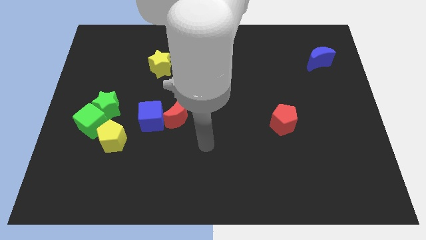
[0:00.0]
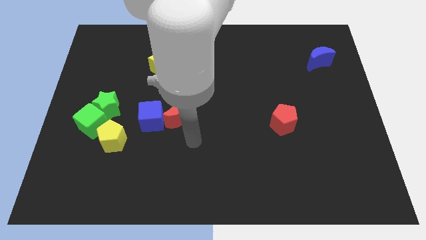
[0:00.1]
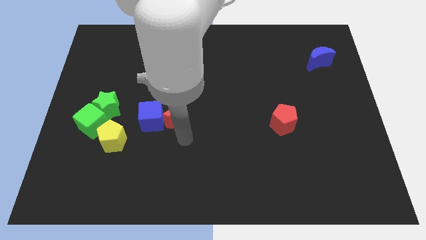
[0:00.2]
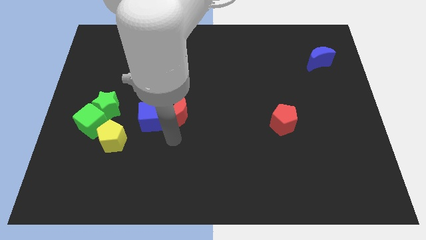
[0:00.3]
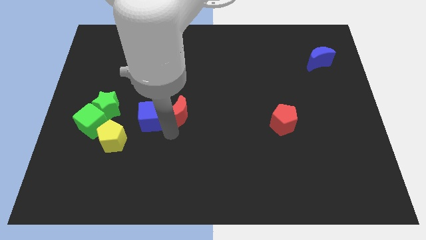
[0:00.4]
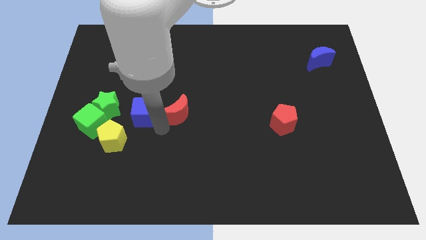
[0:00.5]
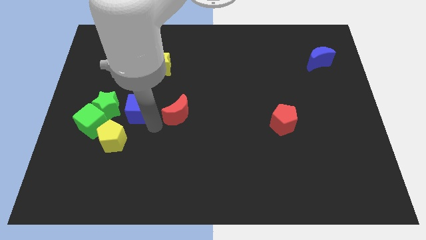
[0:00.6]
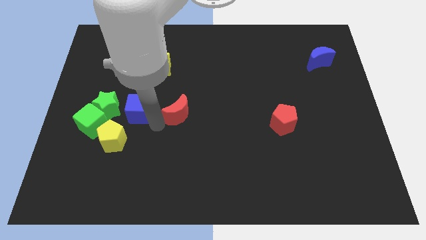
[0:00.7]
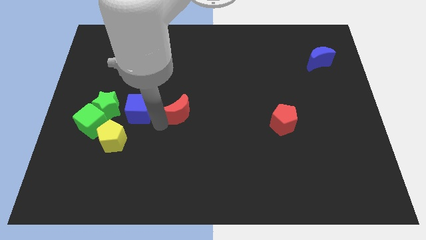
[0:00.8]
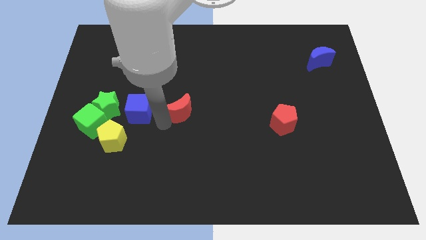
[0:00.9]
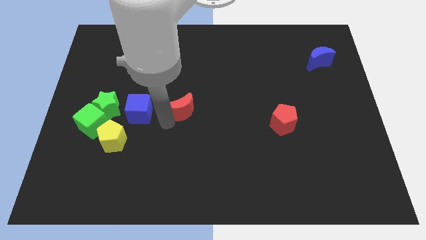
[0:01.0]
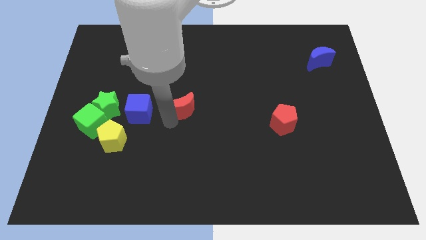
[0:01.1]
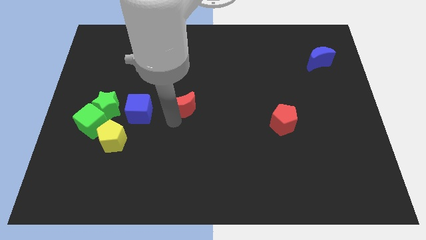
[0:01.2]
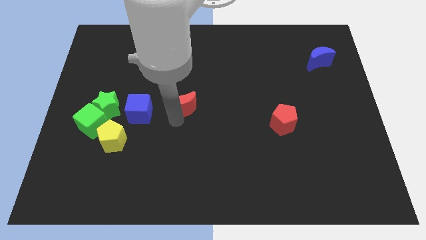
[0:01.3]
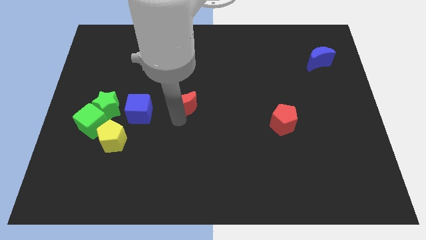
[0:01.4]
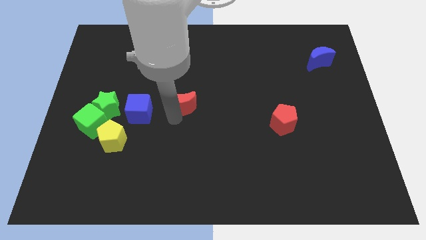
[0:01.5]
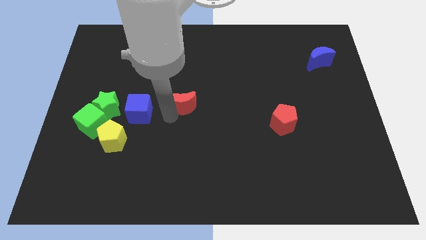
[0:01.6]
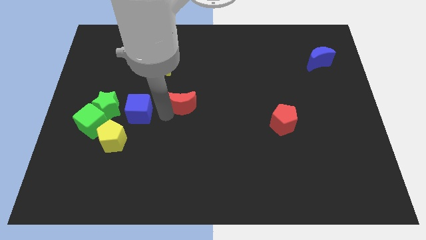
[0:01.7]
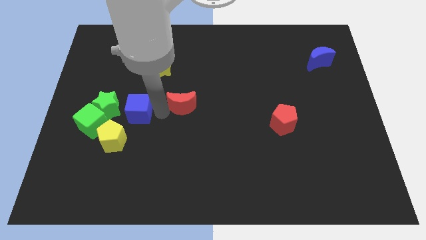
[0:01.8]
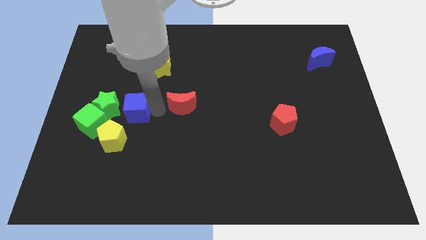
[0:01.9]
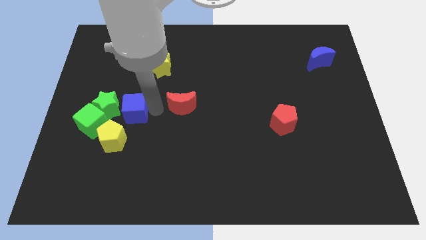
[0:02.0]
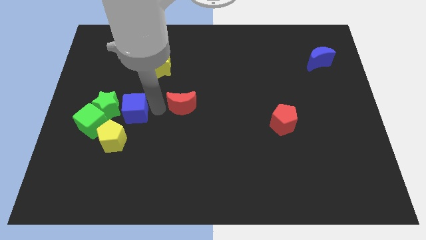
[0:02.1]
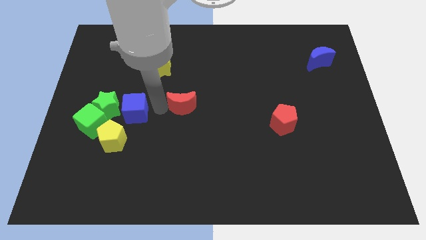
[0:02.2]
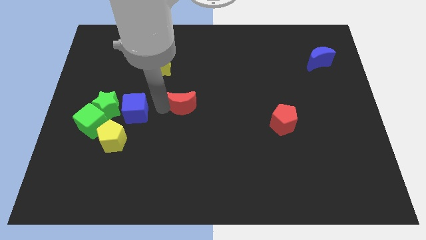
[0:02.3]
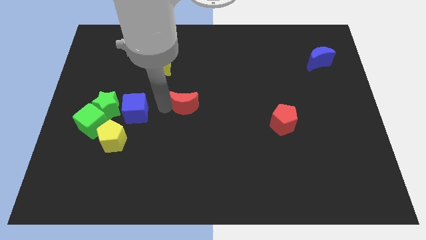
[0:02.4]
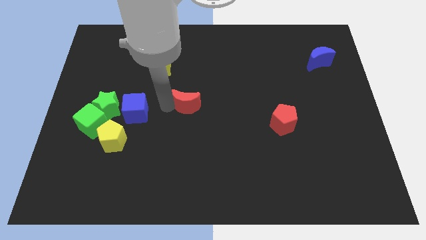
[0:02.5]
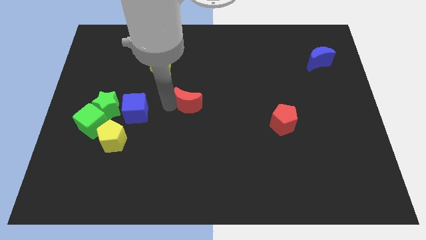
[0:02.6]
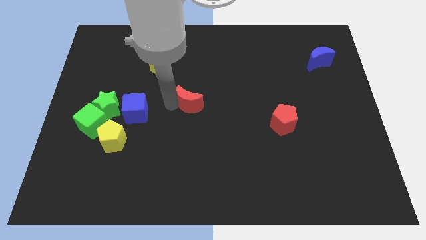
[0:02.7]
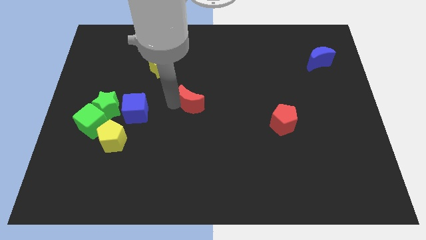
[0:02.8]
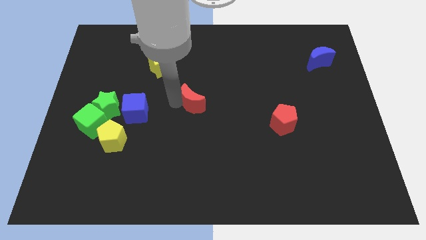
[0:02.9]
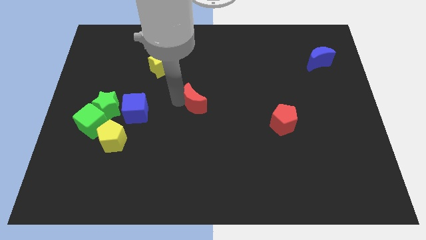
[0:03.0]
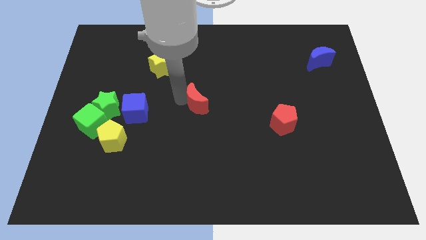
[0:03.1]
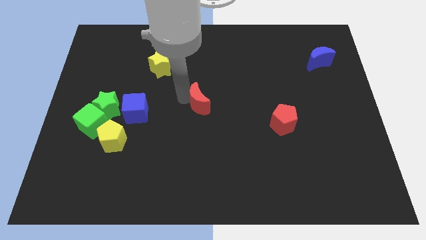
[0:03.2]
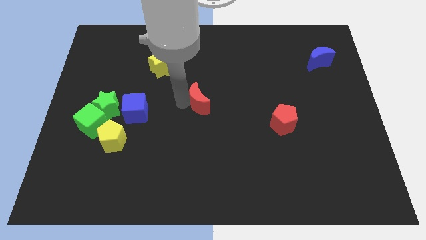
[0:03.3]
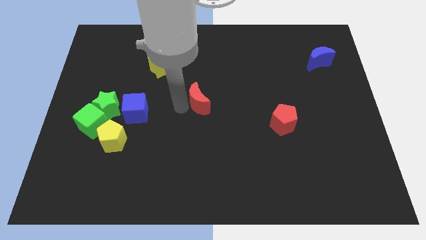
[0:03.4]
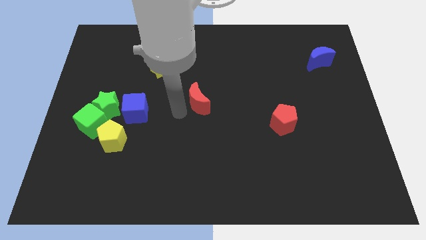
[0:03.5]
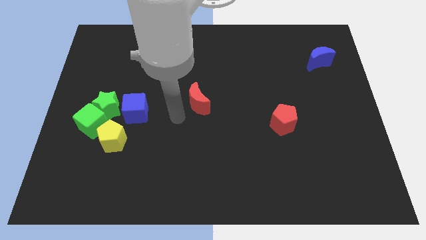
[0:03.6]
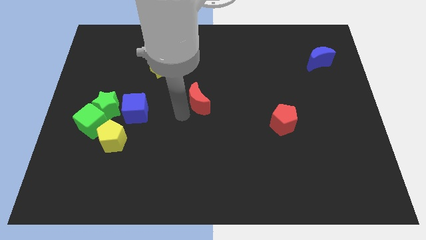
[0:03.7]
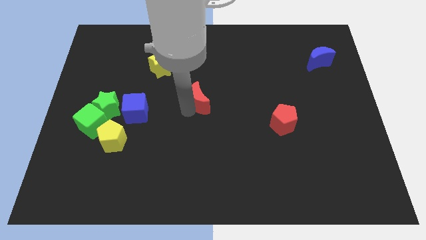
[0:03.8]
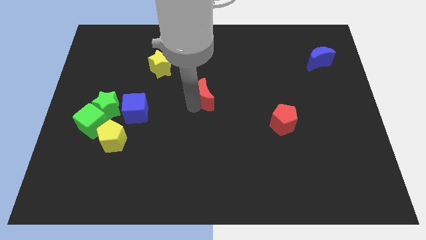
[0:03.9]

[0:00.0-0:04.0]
push the red moon upwards and then right somewhat

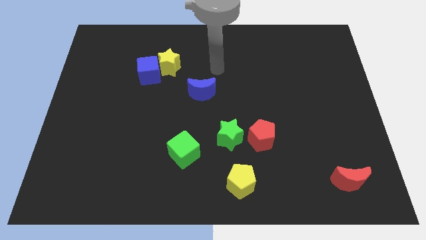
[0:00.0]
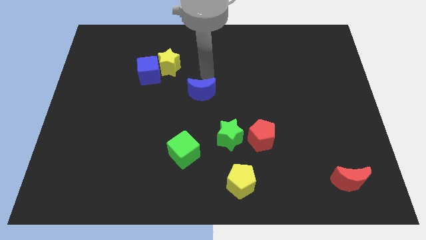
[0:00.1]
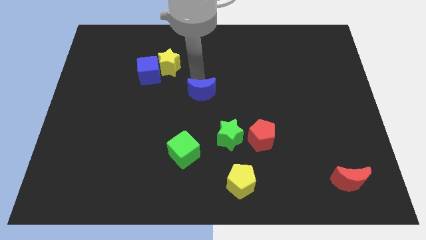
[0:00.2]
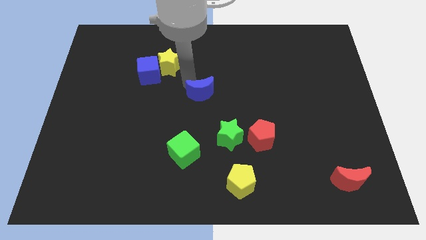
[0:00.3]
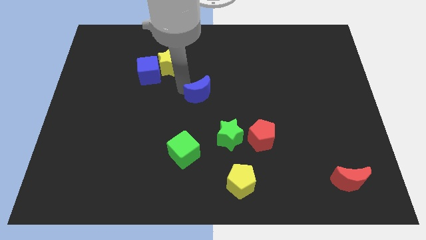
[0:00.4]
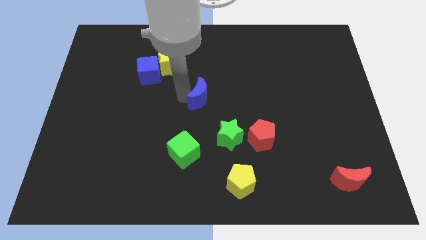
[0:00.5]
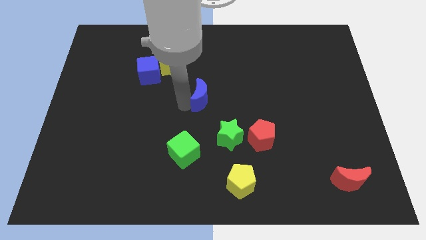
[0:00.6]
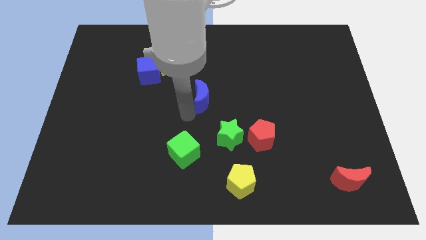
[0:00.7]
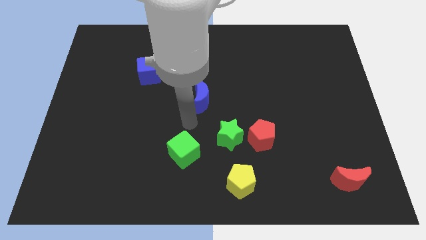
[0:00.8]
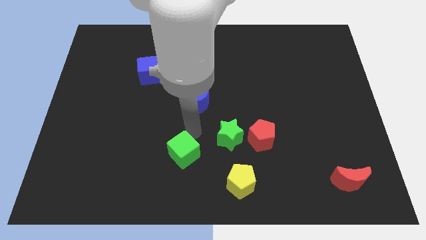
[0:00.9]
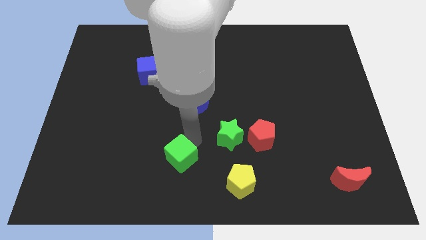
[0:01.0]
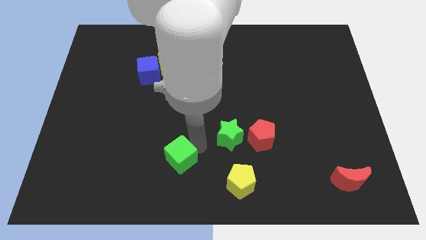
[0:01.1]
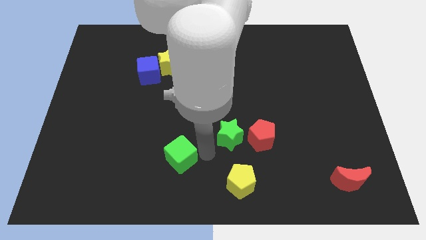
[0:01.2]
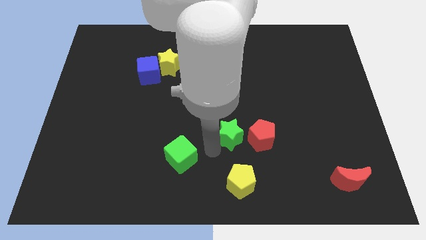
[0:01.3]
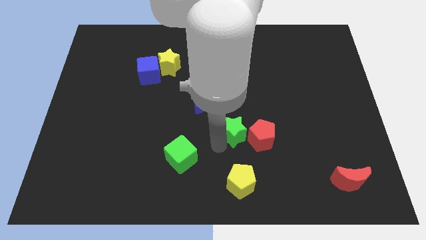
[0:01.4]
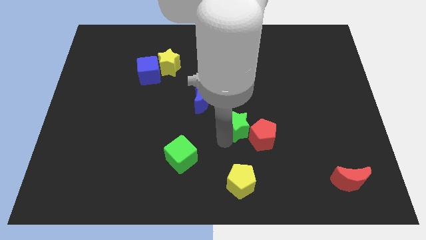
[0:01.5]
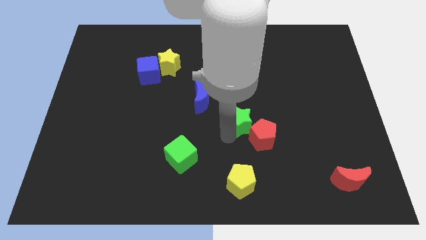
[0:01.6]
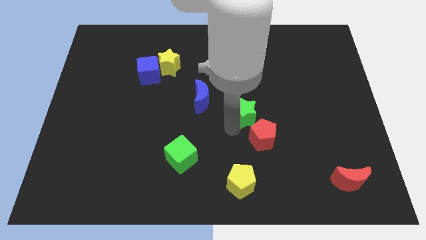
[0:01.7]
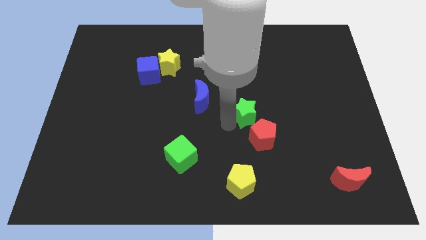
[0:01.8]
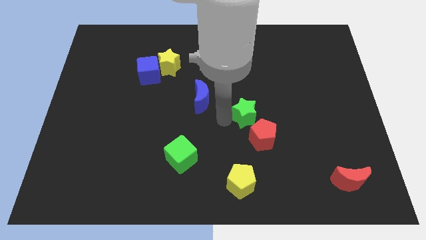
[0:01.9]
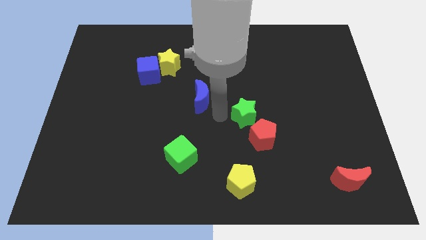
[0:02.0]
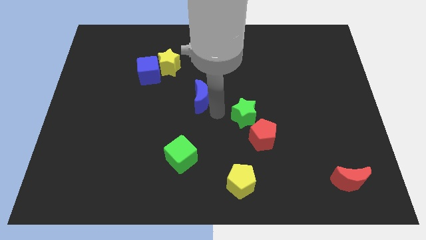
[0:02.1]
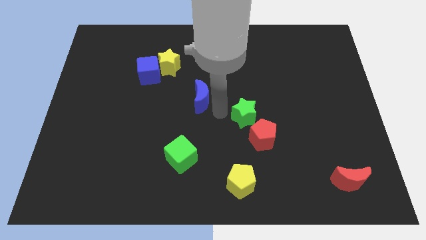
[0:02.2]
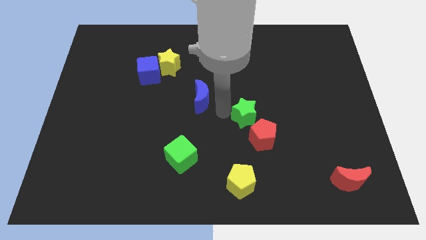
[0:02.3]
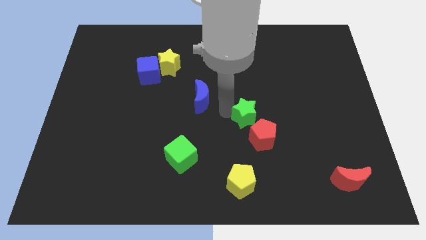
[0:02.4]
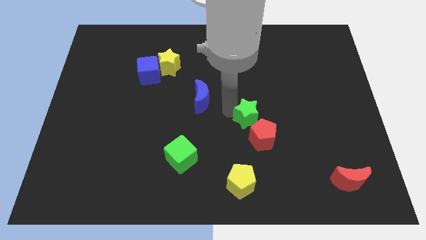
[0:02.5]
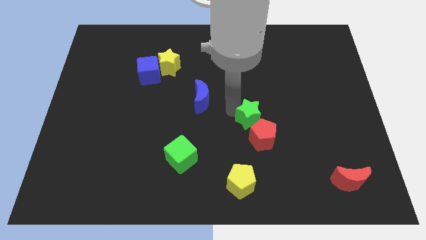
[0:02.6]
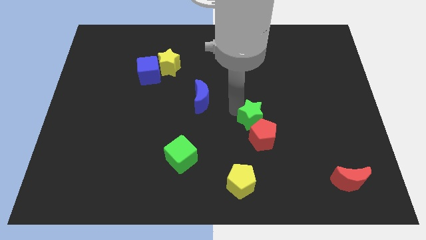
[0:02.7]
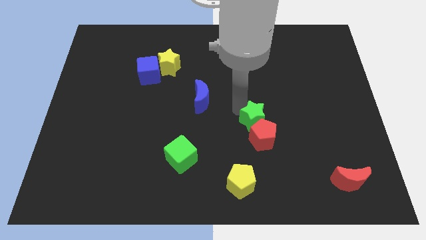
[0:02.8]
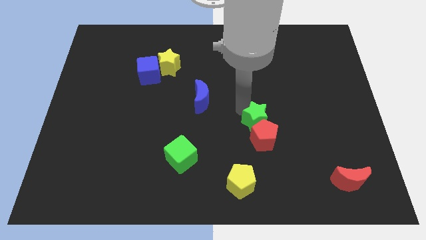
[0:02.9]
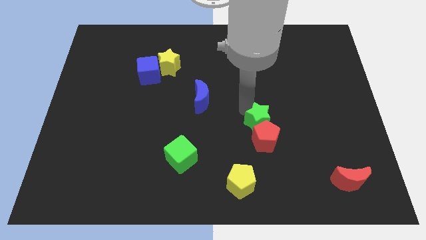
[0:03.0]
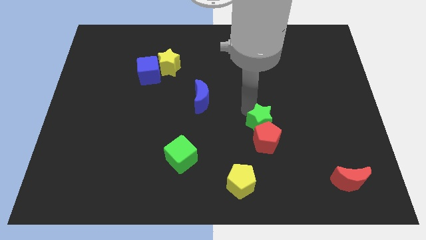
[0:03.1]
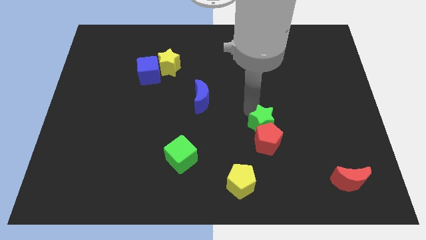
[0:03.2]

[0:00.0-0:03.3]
move the green star a little right

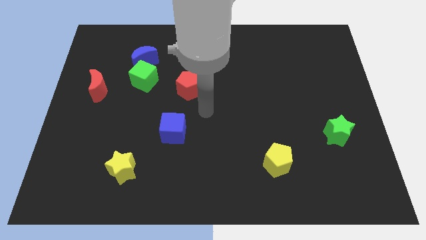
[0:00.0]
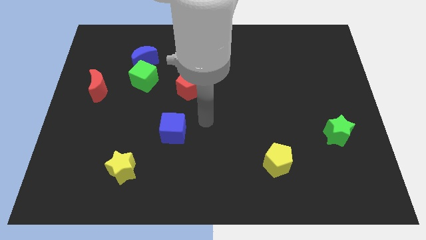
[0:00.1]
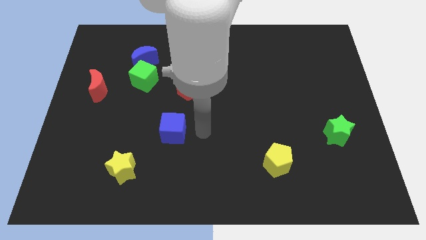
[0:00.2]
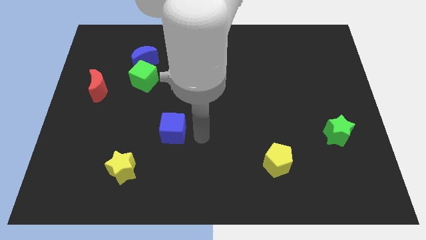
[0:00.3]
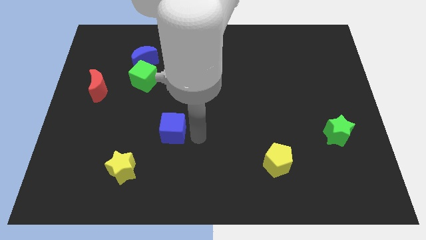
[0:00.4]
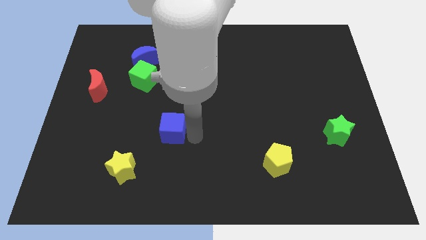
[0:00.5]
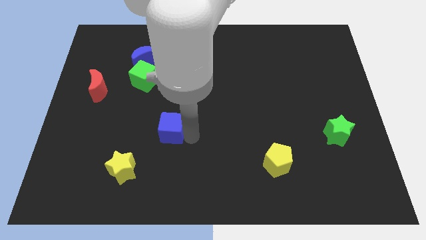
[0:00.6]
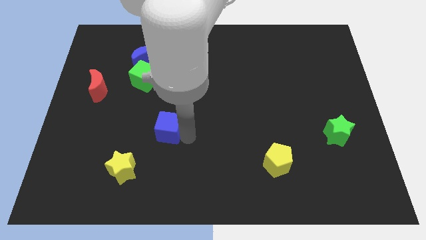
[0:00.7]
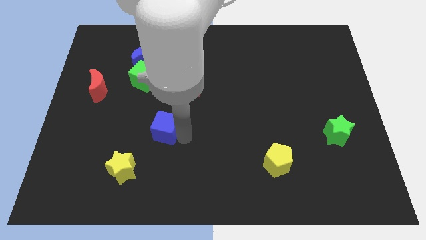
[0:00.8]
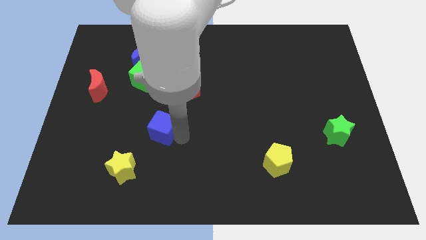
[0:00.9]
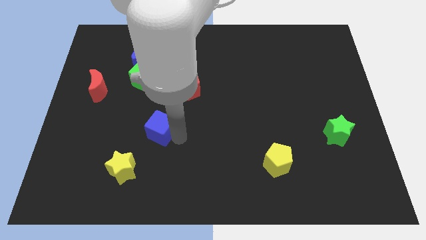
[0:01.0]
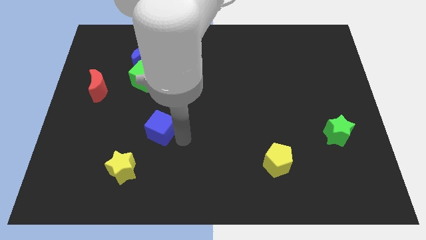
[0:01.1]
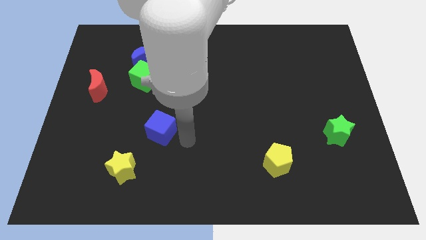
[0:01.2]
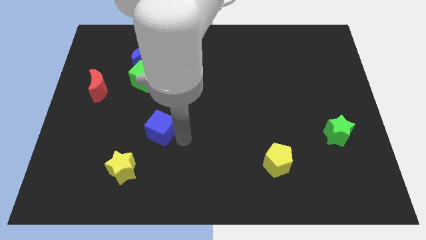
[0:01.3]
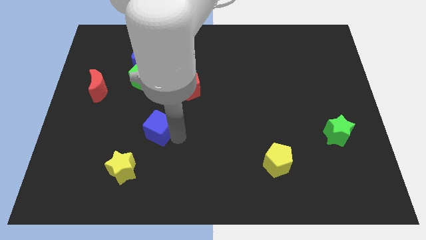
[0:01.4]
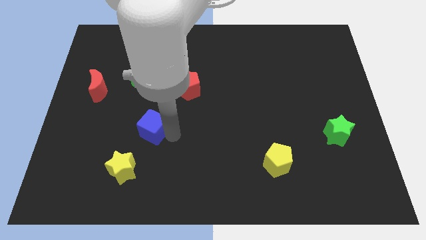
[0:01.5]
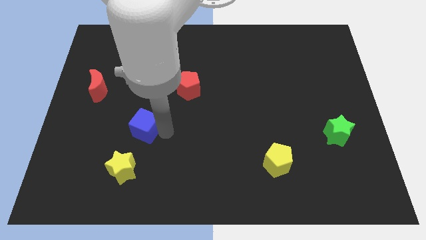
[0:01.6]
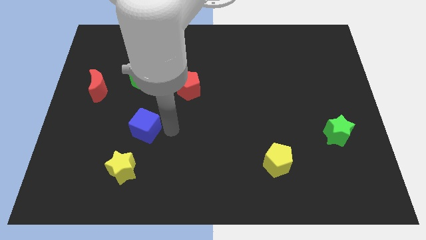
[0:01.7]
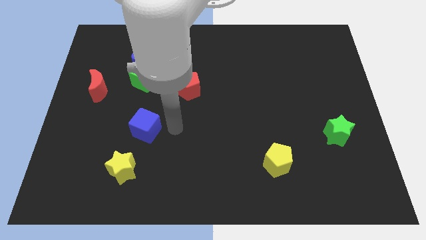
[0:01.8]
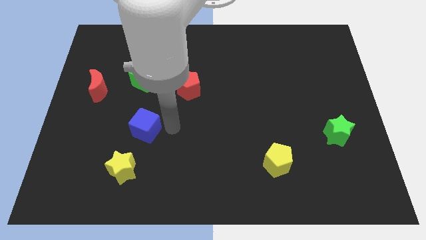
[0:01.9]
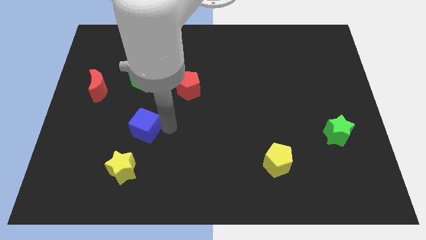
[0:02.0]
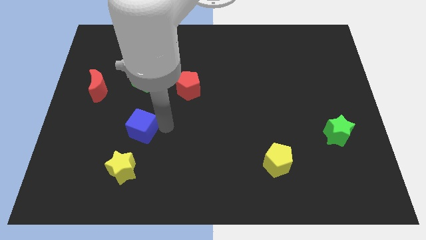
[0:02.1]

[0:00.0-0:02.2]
push the blue cube a little left
